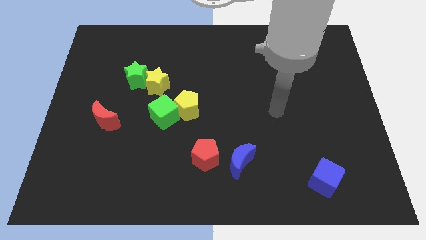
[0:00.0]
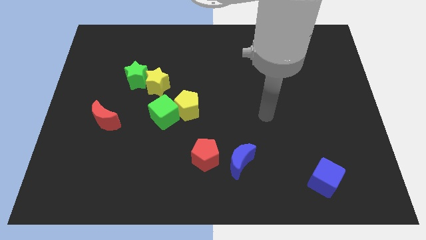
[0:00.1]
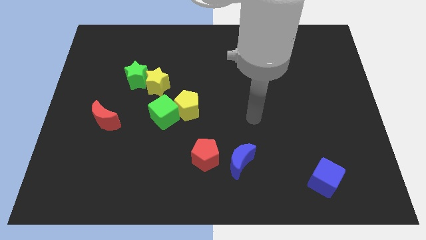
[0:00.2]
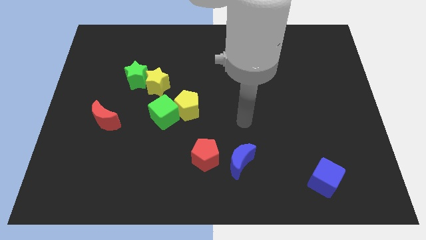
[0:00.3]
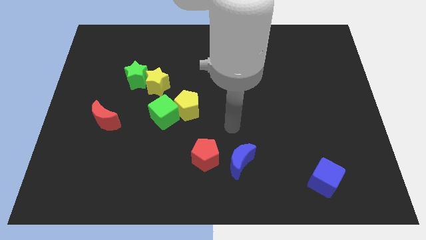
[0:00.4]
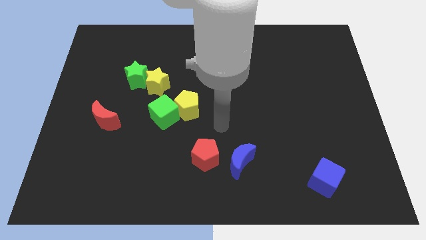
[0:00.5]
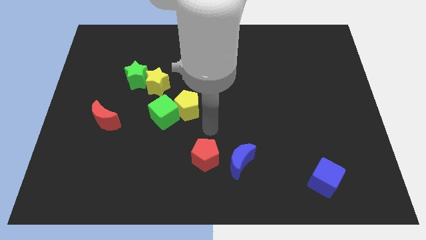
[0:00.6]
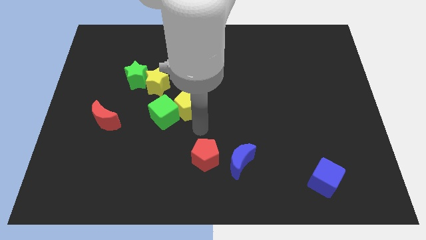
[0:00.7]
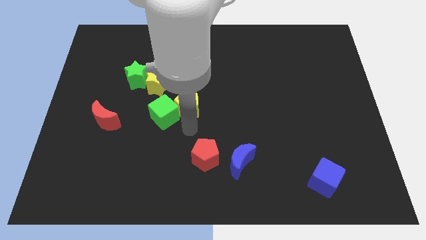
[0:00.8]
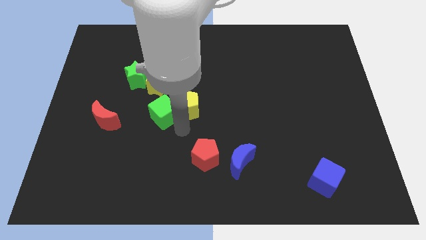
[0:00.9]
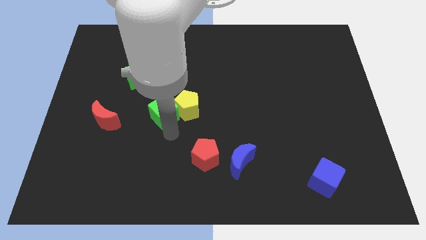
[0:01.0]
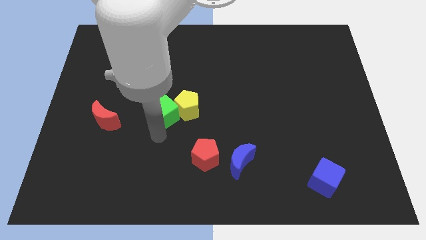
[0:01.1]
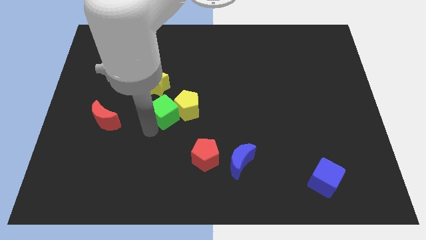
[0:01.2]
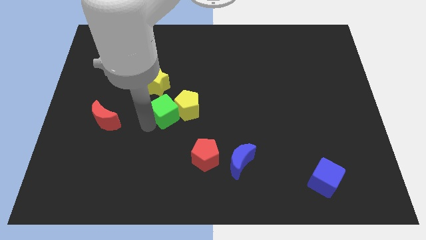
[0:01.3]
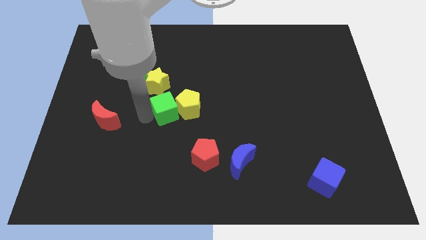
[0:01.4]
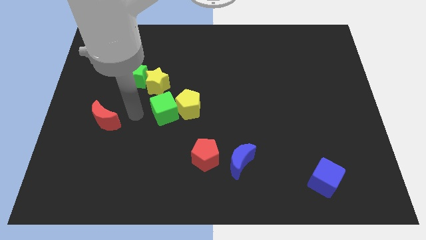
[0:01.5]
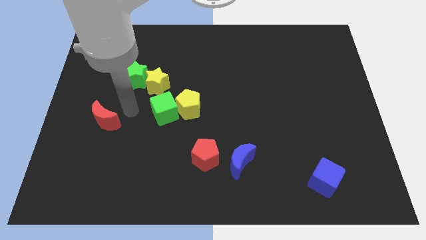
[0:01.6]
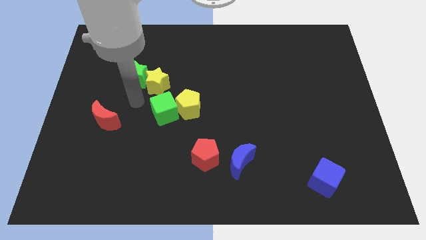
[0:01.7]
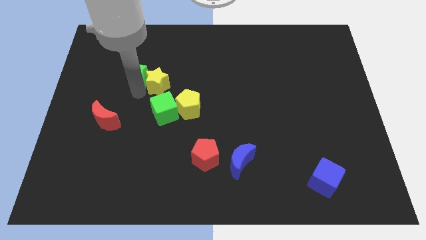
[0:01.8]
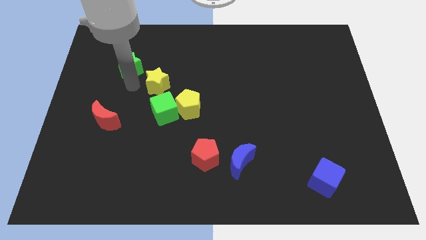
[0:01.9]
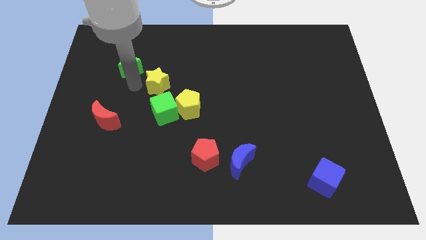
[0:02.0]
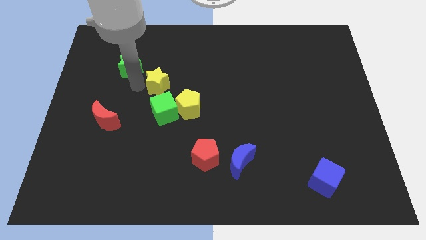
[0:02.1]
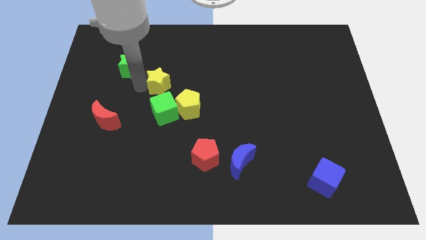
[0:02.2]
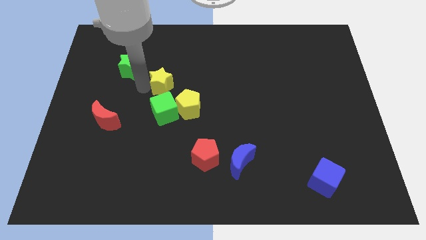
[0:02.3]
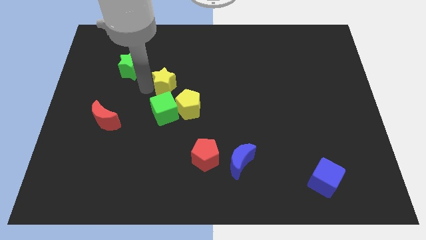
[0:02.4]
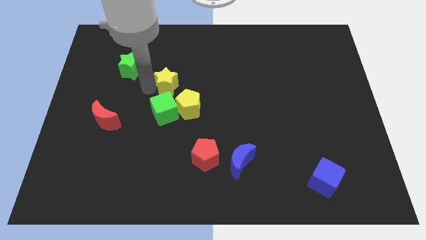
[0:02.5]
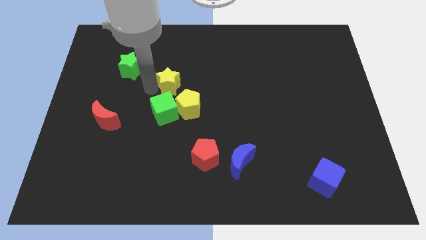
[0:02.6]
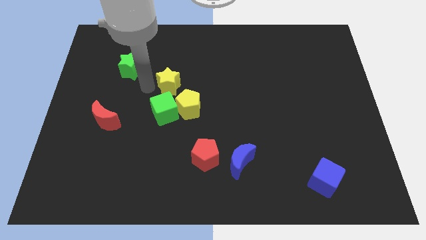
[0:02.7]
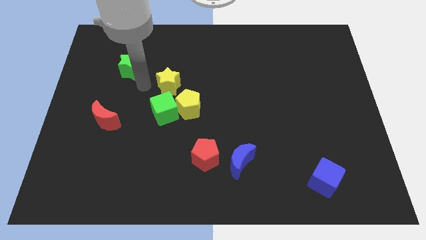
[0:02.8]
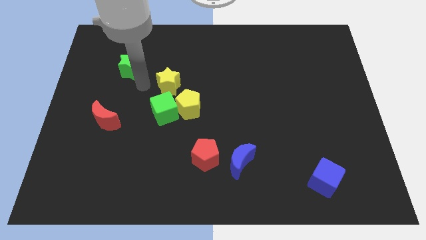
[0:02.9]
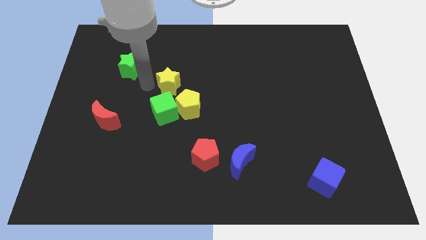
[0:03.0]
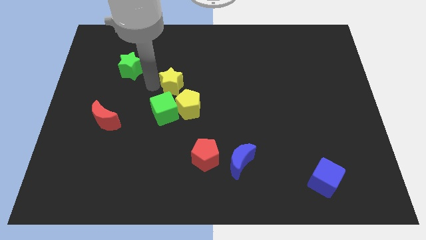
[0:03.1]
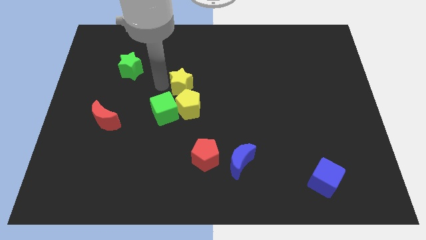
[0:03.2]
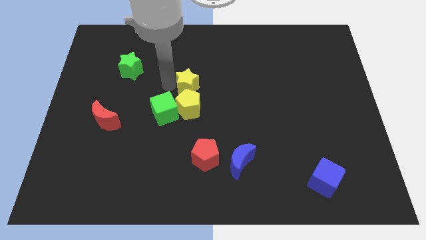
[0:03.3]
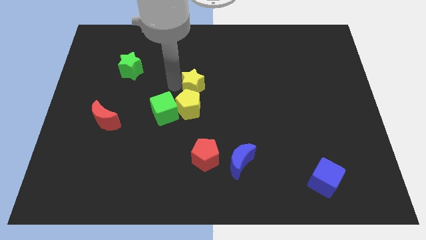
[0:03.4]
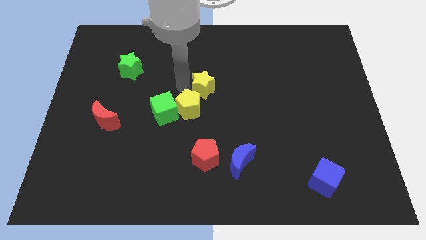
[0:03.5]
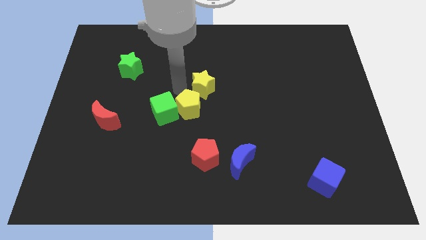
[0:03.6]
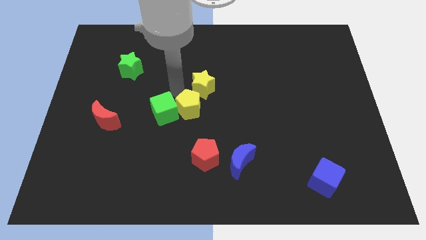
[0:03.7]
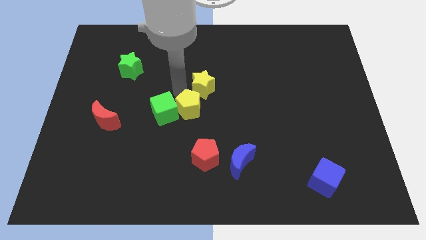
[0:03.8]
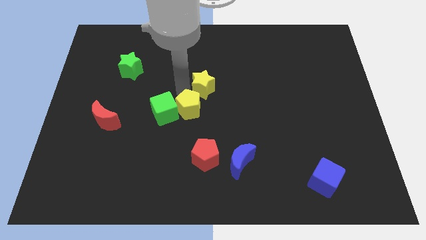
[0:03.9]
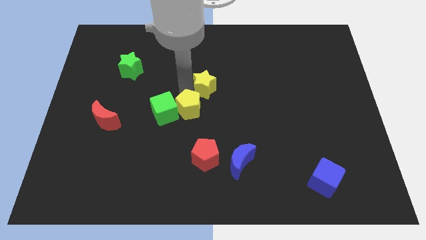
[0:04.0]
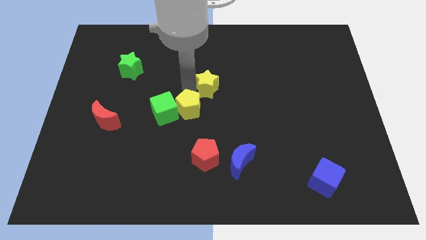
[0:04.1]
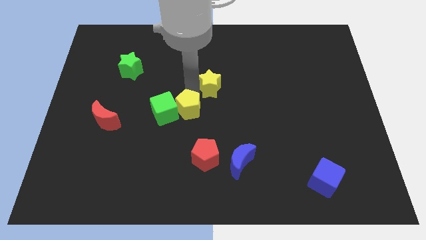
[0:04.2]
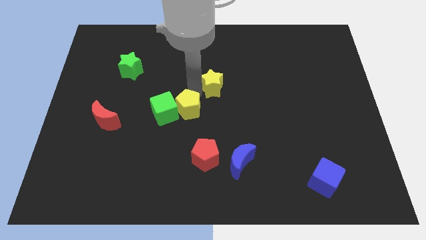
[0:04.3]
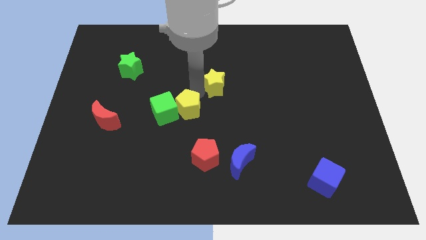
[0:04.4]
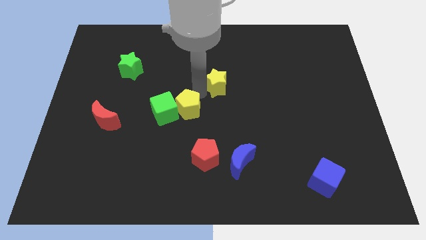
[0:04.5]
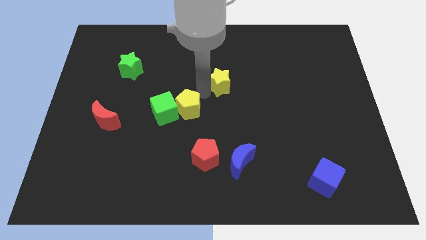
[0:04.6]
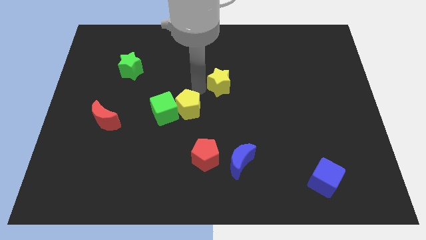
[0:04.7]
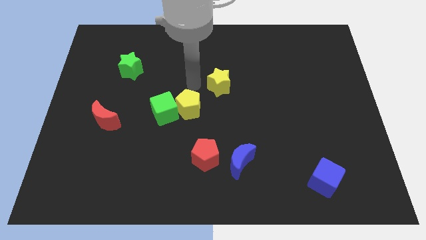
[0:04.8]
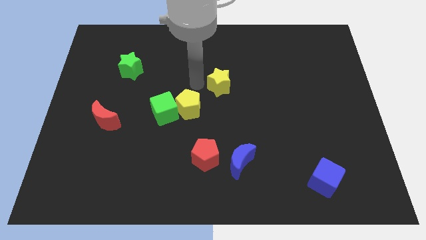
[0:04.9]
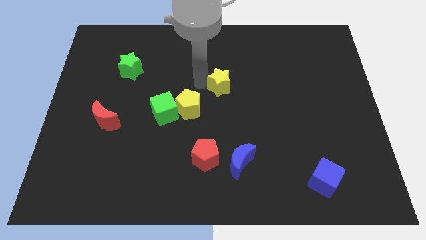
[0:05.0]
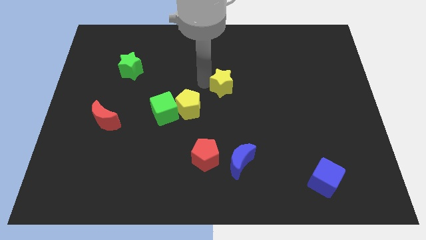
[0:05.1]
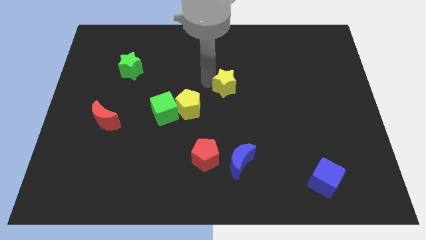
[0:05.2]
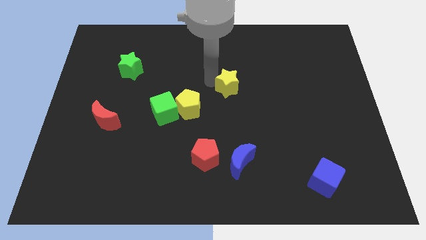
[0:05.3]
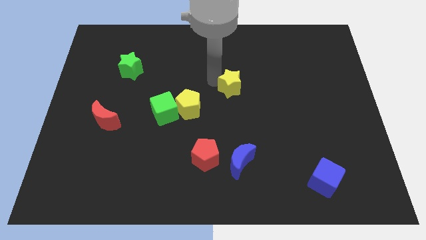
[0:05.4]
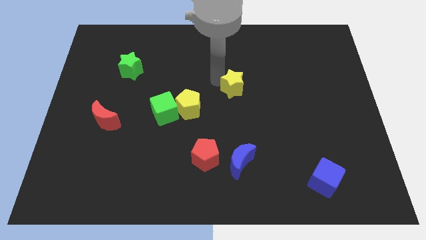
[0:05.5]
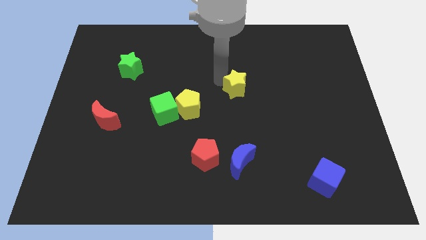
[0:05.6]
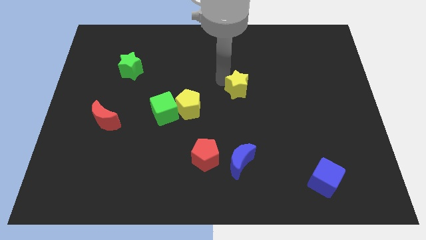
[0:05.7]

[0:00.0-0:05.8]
slide the yellow star right

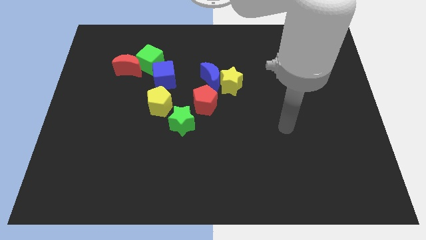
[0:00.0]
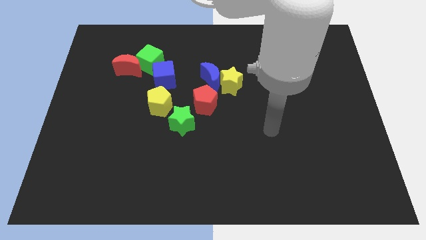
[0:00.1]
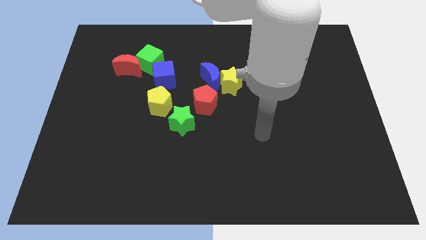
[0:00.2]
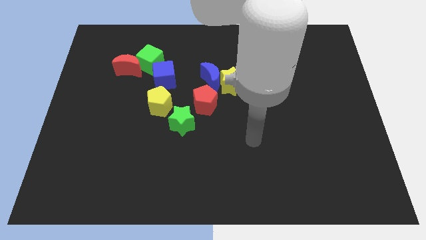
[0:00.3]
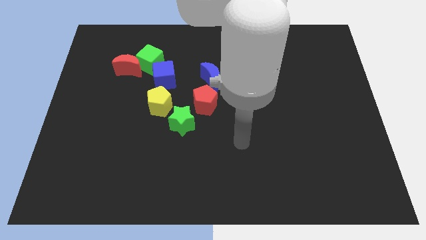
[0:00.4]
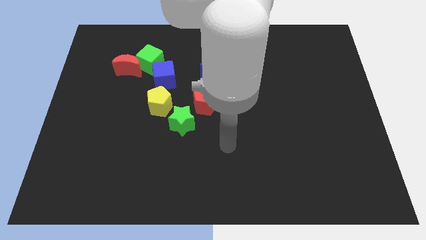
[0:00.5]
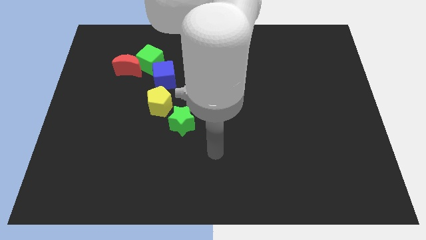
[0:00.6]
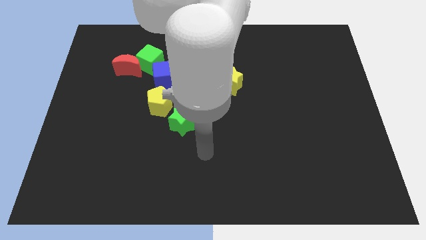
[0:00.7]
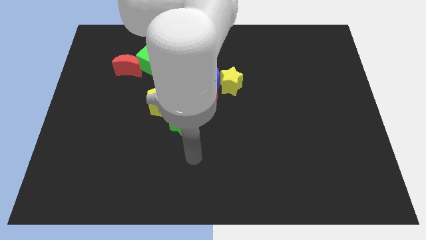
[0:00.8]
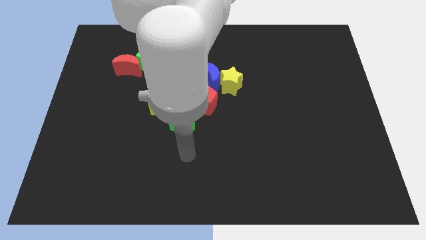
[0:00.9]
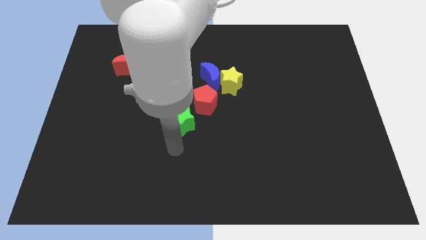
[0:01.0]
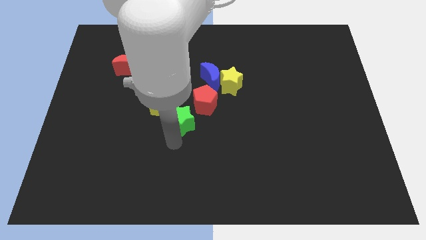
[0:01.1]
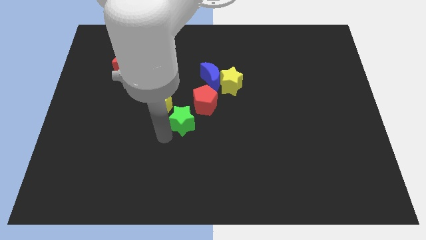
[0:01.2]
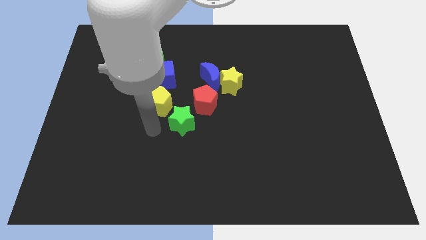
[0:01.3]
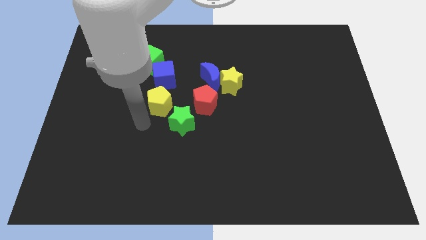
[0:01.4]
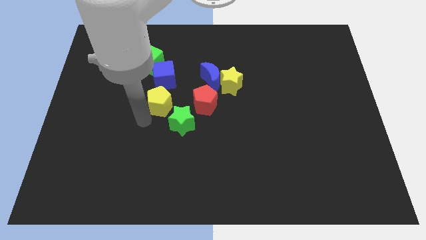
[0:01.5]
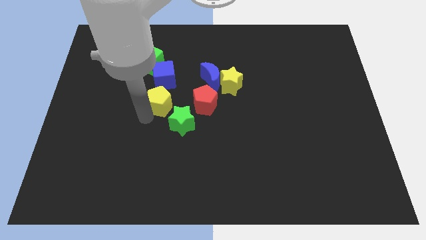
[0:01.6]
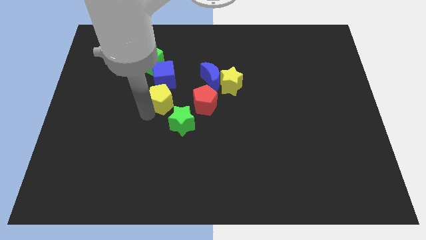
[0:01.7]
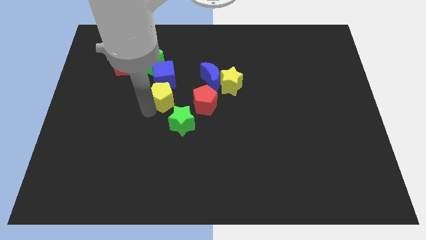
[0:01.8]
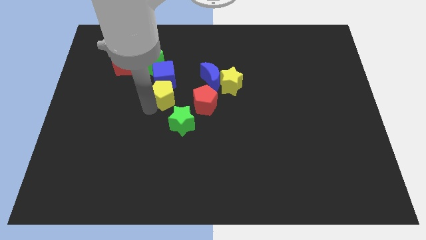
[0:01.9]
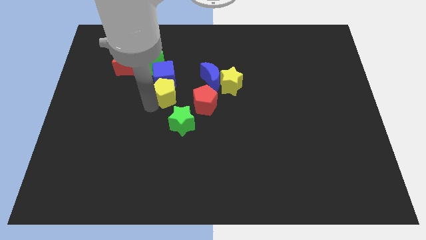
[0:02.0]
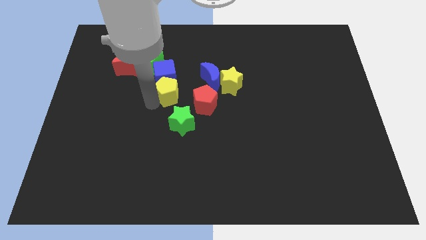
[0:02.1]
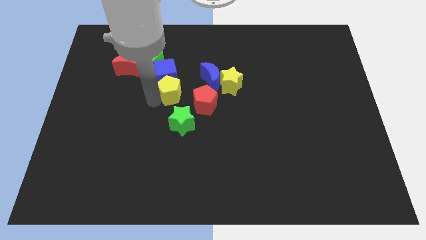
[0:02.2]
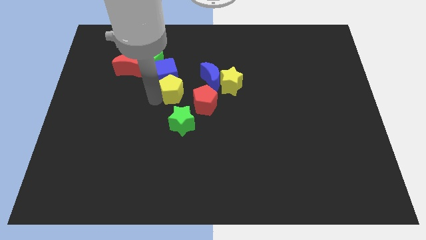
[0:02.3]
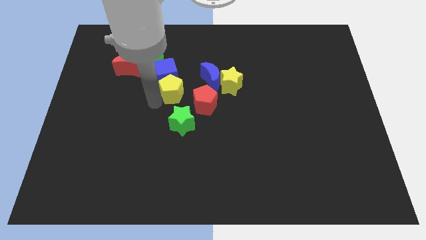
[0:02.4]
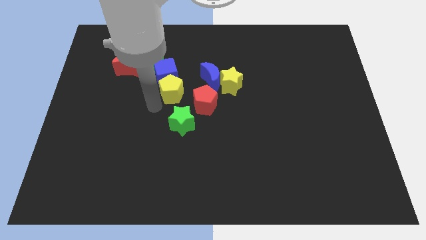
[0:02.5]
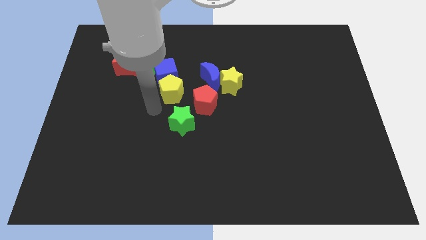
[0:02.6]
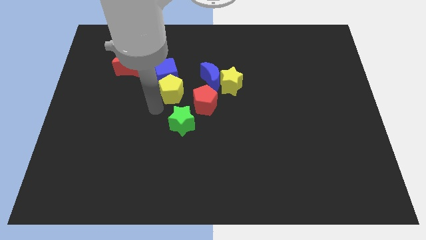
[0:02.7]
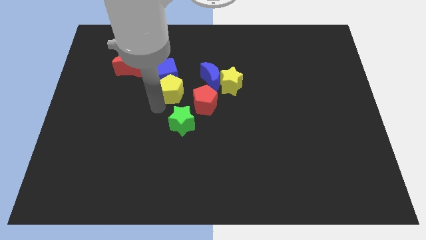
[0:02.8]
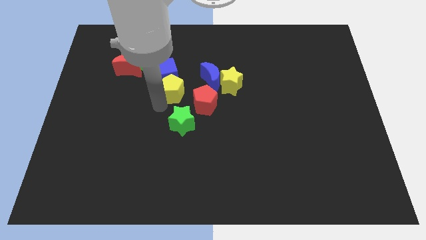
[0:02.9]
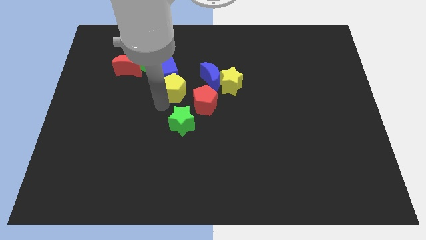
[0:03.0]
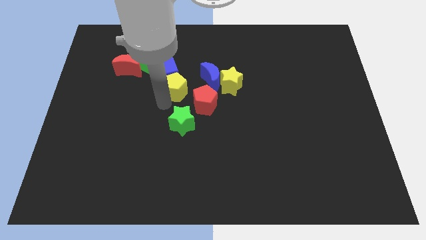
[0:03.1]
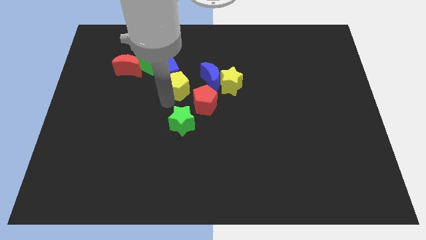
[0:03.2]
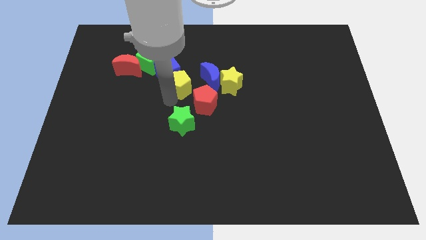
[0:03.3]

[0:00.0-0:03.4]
slightly move the yellow pentagon up and then to the right
